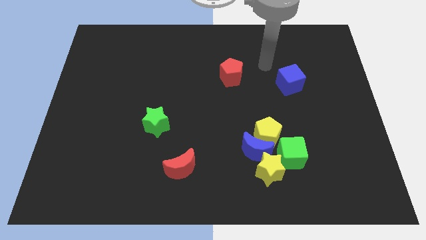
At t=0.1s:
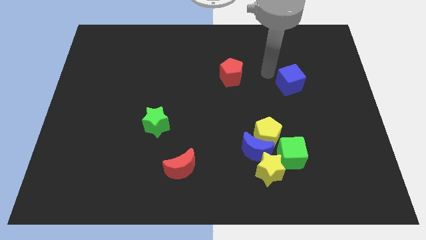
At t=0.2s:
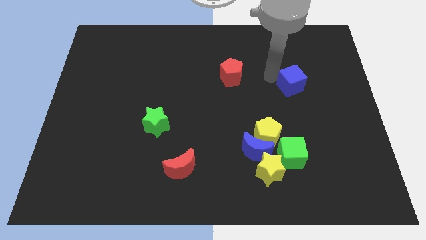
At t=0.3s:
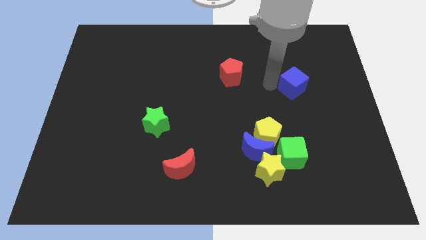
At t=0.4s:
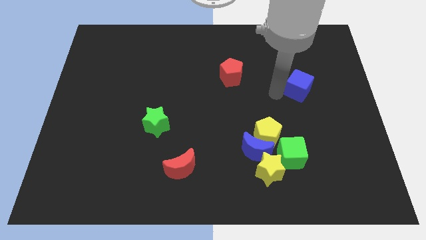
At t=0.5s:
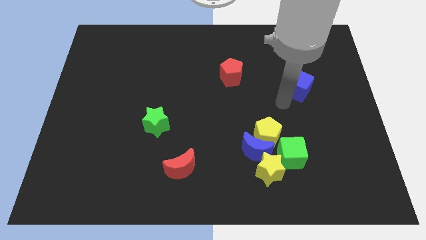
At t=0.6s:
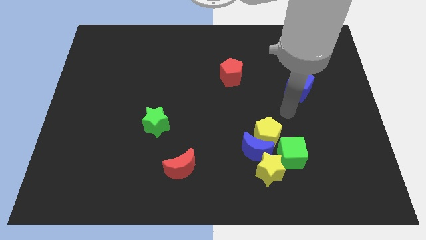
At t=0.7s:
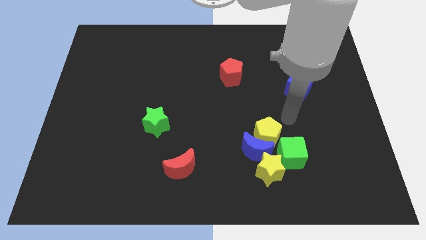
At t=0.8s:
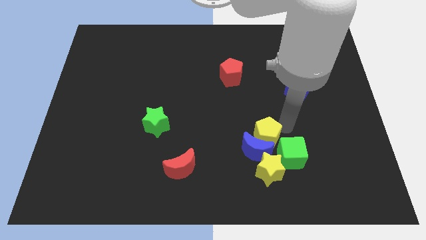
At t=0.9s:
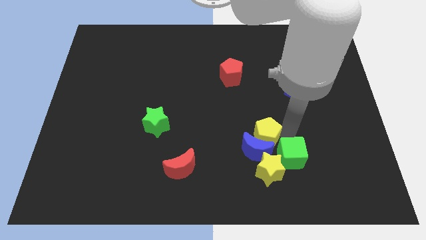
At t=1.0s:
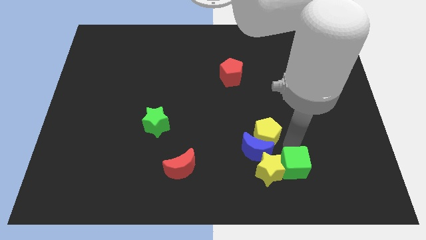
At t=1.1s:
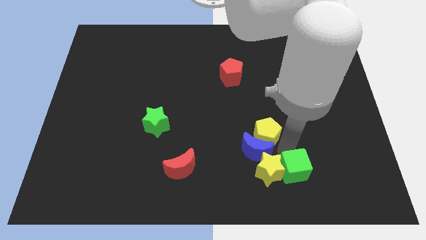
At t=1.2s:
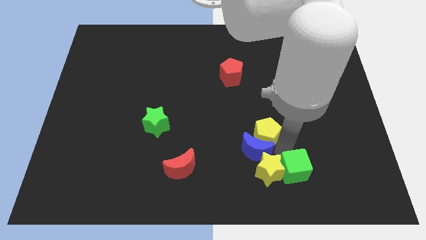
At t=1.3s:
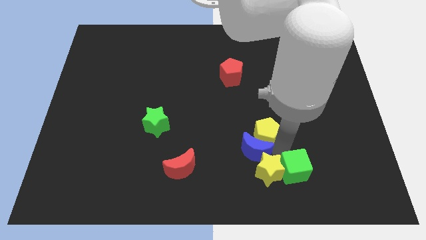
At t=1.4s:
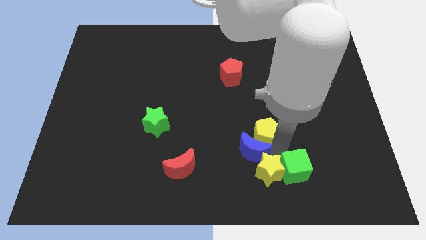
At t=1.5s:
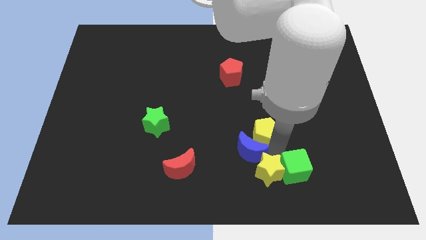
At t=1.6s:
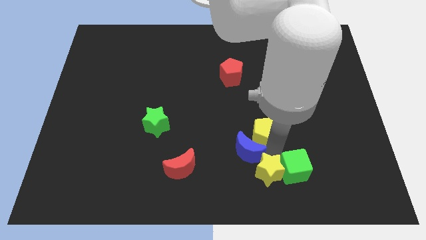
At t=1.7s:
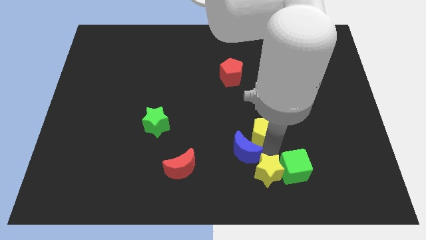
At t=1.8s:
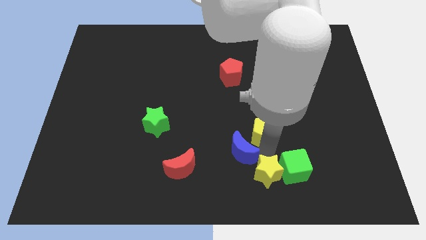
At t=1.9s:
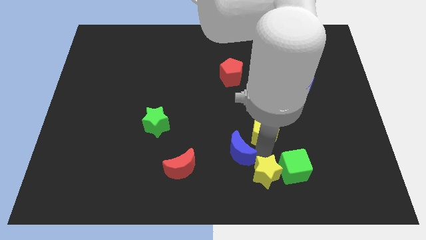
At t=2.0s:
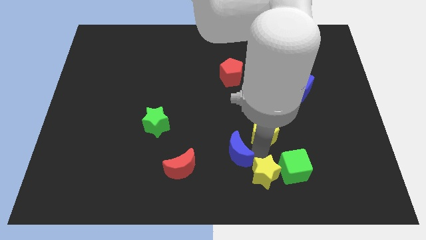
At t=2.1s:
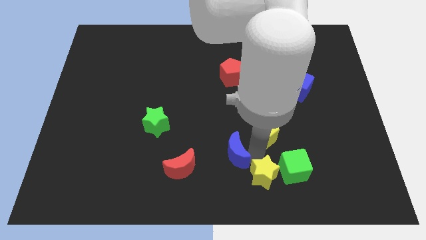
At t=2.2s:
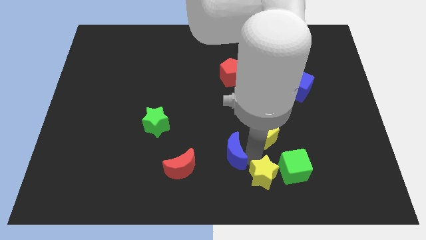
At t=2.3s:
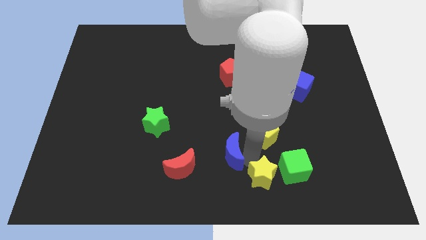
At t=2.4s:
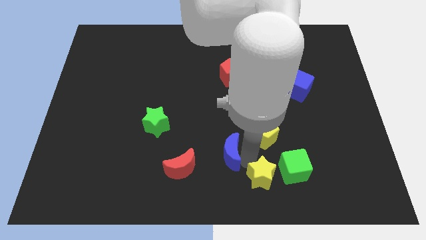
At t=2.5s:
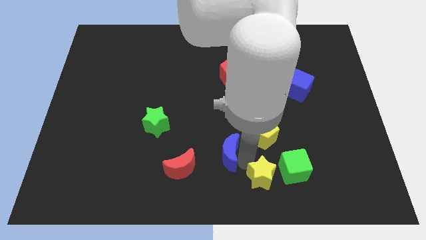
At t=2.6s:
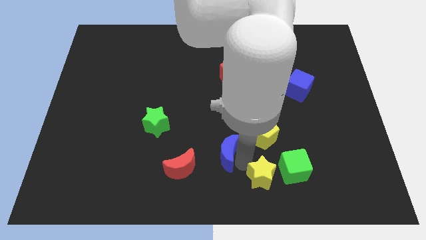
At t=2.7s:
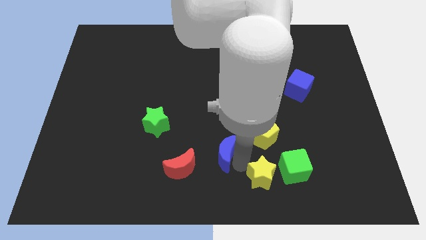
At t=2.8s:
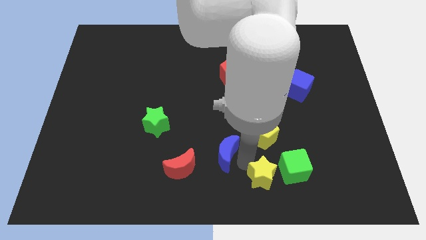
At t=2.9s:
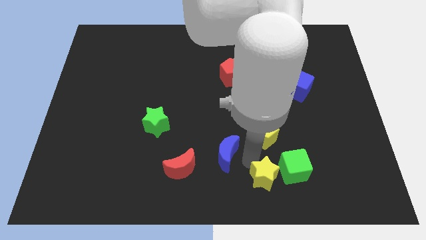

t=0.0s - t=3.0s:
separate the blue moon from the yellow pentagon, yellow star, and green cube

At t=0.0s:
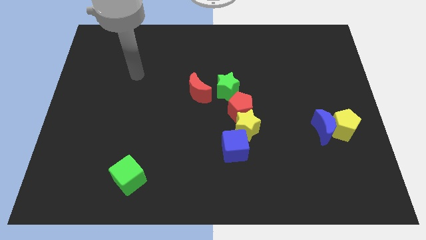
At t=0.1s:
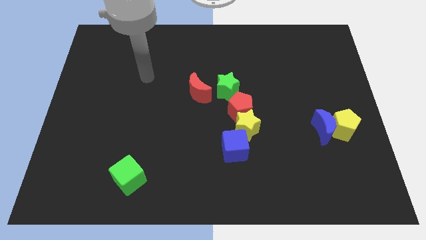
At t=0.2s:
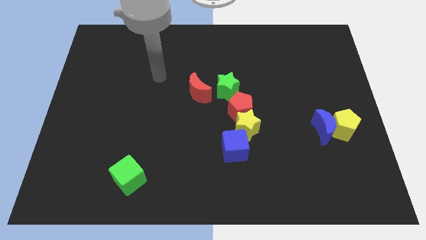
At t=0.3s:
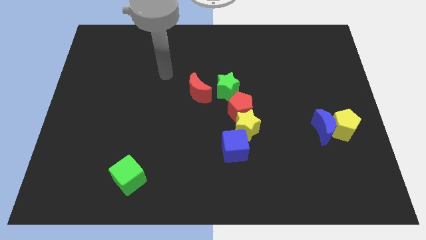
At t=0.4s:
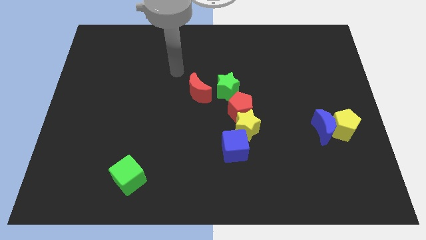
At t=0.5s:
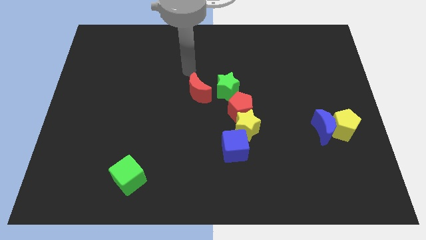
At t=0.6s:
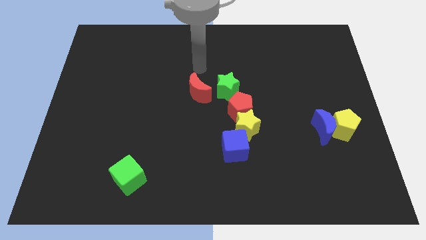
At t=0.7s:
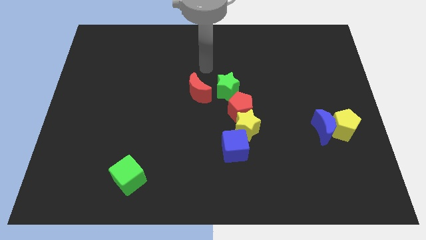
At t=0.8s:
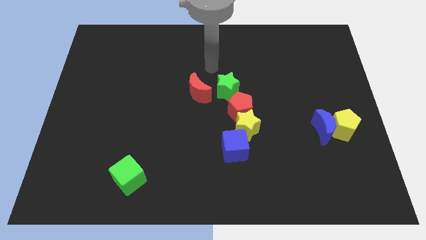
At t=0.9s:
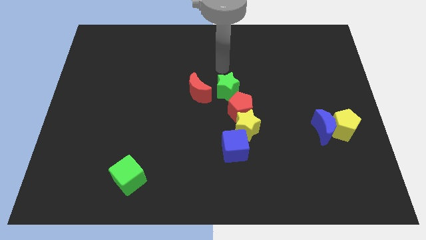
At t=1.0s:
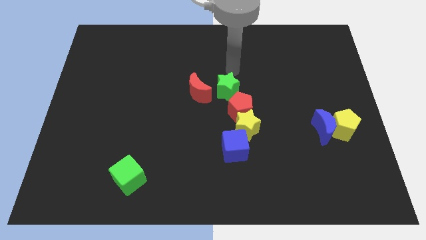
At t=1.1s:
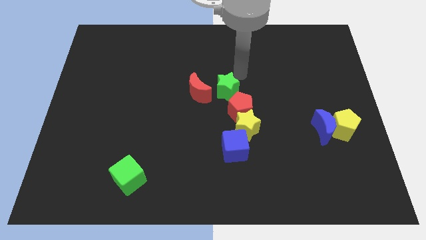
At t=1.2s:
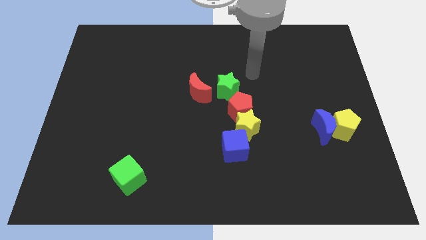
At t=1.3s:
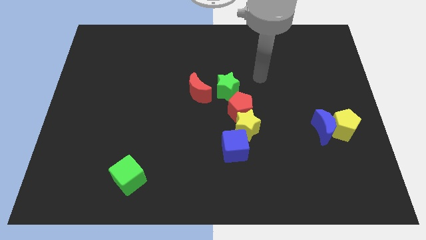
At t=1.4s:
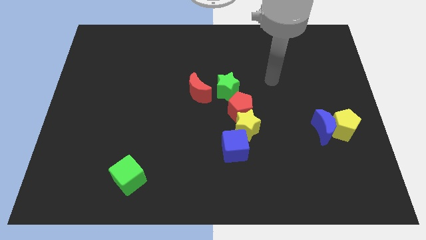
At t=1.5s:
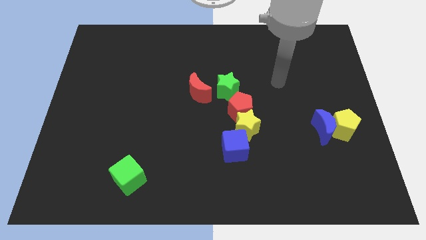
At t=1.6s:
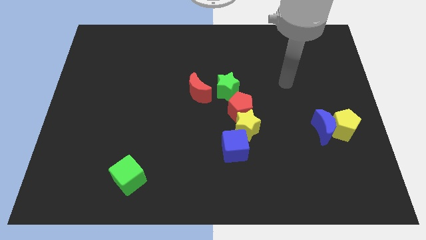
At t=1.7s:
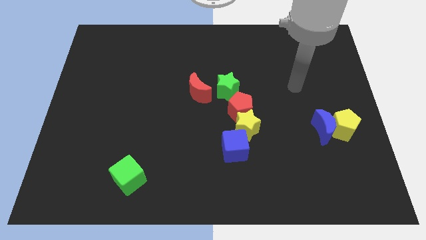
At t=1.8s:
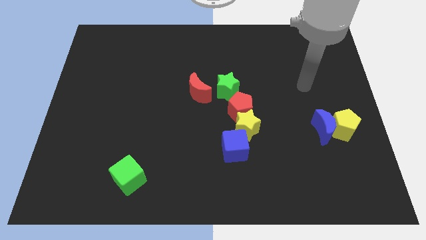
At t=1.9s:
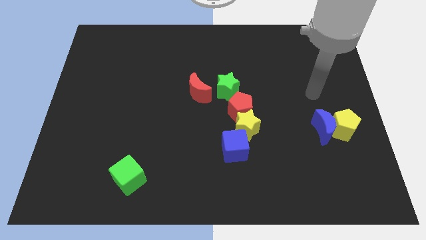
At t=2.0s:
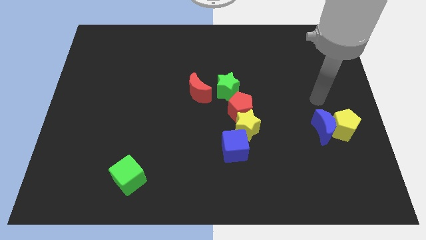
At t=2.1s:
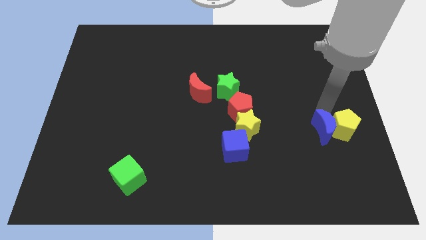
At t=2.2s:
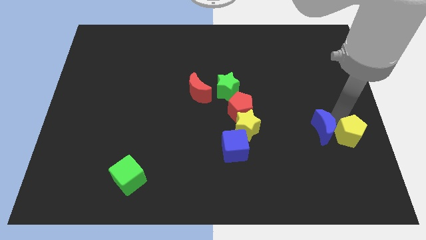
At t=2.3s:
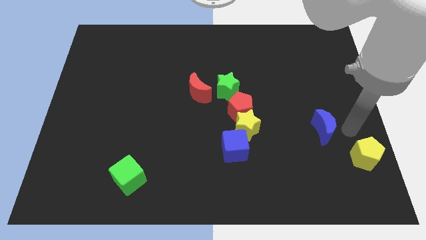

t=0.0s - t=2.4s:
separate the blue moon from the yellow pentagon

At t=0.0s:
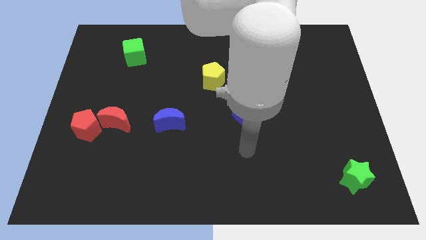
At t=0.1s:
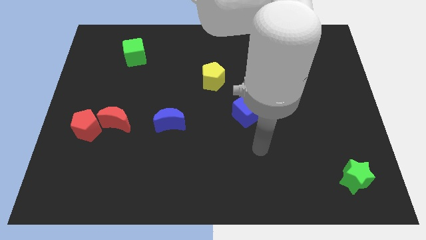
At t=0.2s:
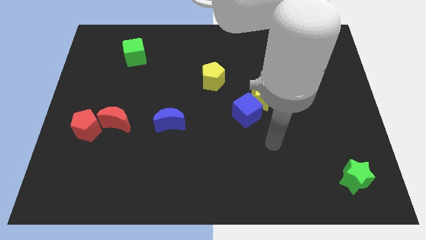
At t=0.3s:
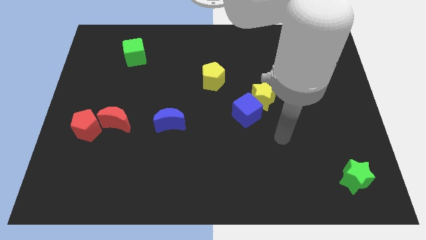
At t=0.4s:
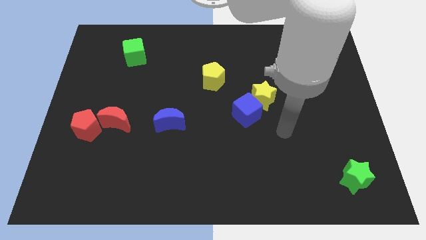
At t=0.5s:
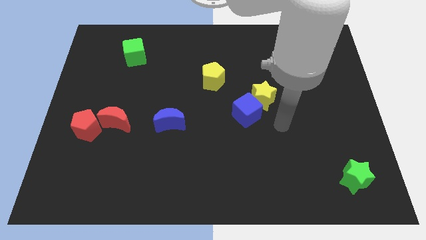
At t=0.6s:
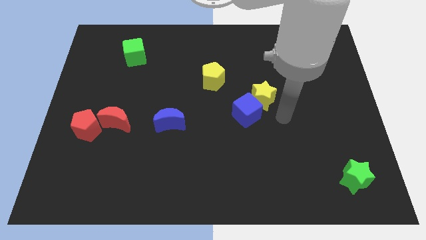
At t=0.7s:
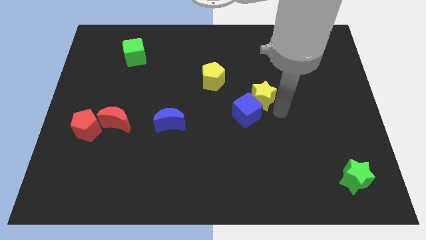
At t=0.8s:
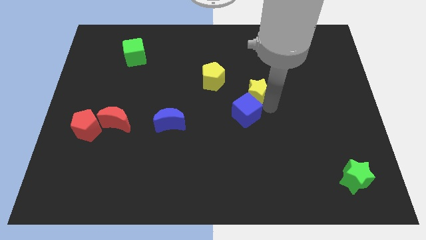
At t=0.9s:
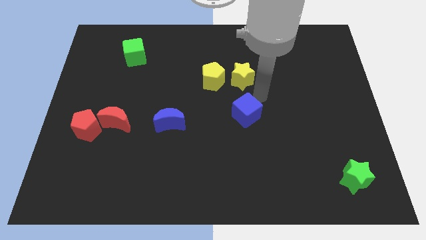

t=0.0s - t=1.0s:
move the blue cube away from the yellow star

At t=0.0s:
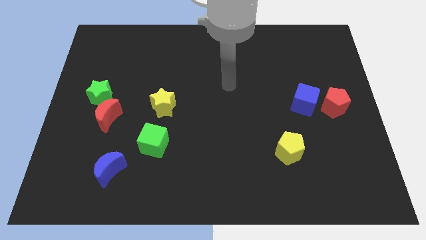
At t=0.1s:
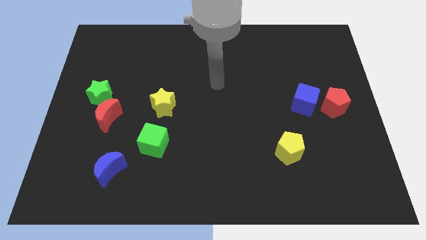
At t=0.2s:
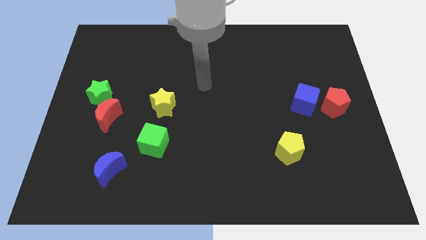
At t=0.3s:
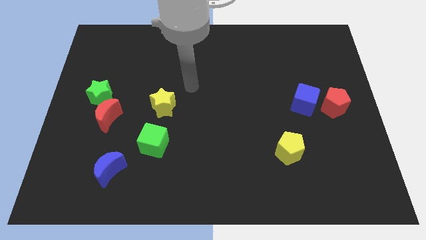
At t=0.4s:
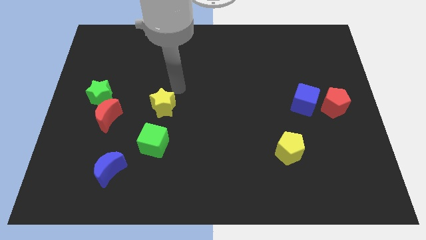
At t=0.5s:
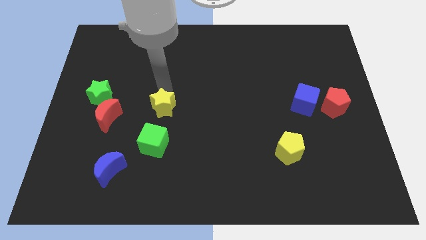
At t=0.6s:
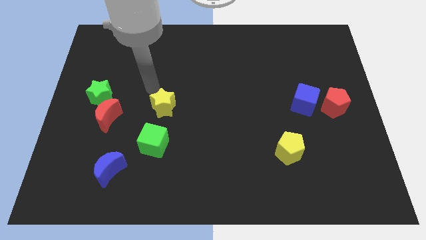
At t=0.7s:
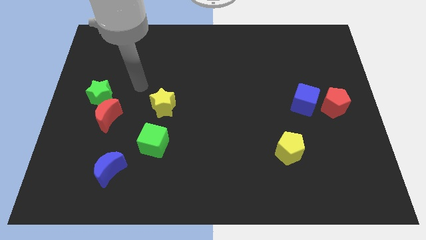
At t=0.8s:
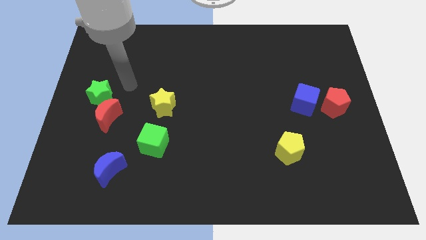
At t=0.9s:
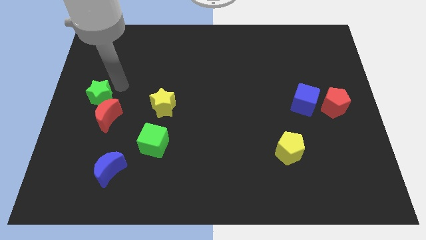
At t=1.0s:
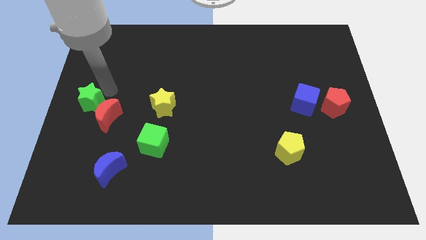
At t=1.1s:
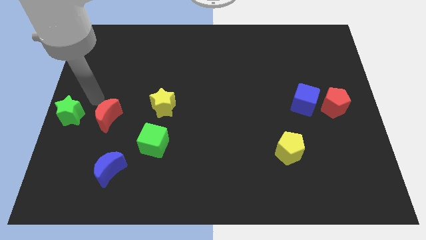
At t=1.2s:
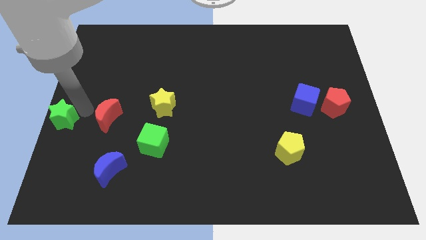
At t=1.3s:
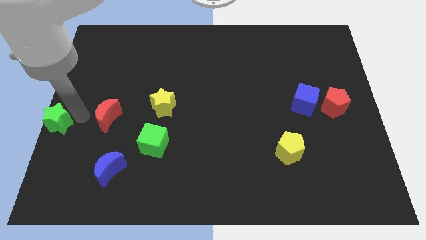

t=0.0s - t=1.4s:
move the red moon away from the green star

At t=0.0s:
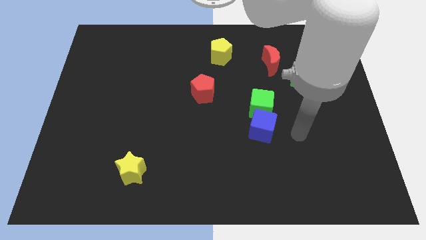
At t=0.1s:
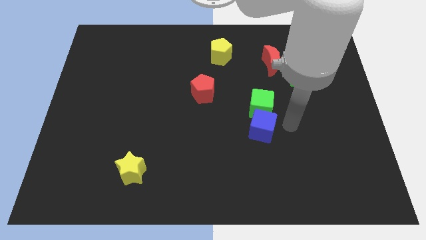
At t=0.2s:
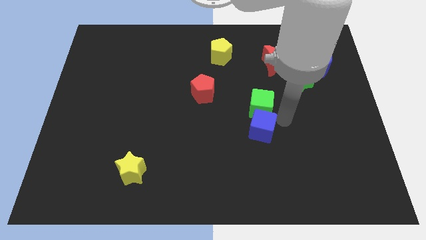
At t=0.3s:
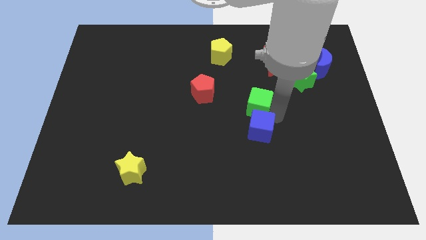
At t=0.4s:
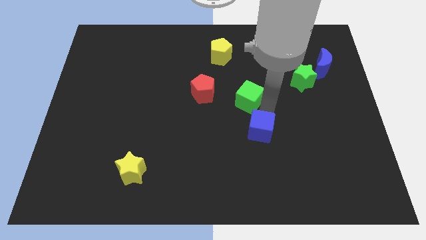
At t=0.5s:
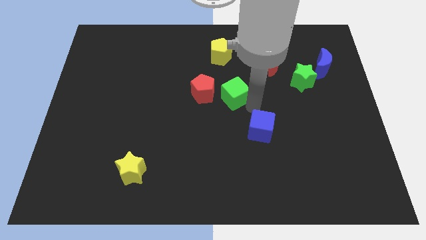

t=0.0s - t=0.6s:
pull the blue cube apart from the green cube

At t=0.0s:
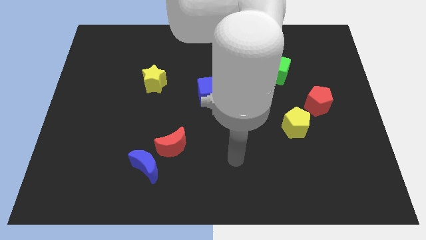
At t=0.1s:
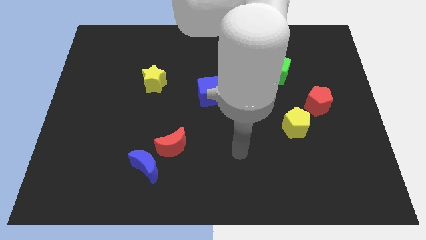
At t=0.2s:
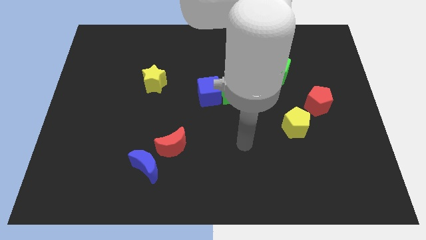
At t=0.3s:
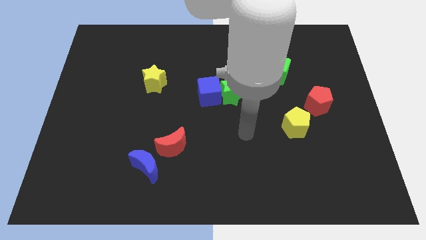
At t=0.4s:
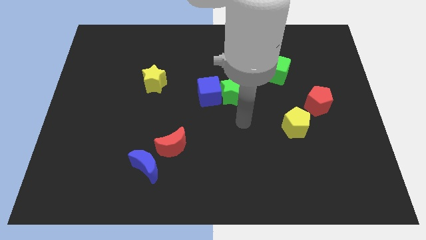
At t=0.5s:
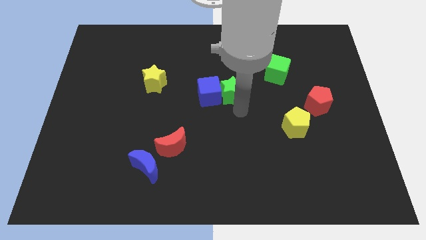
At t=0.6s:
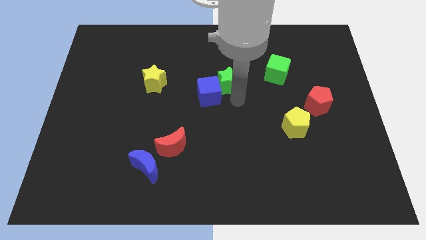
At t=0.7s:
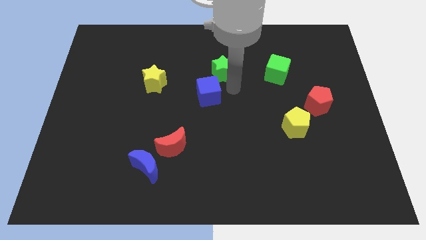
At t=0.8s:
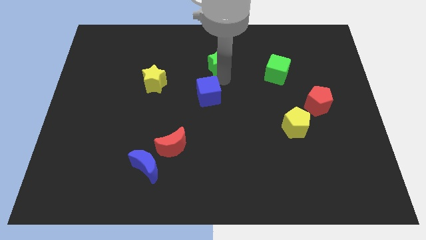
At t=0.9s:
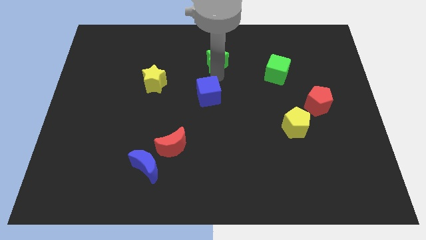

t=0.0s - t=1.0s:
pull the blue cube apart from the green star
